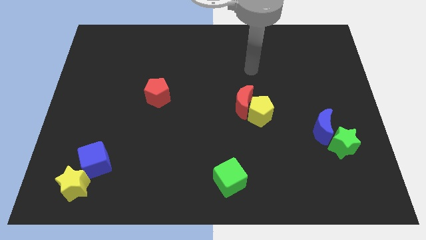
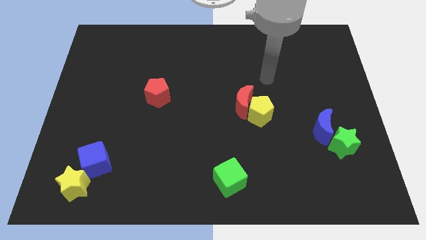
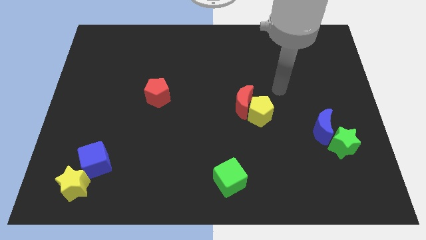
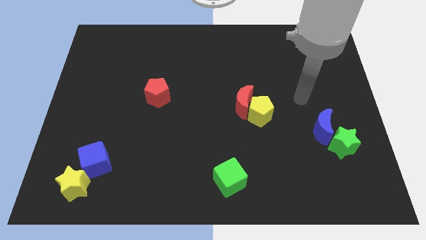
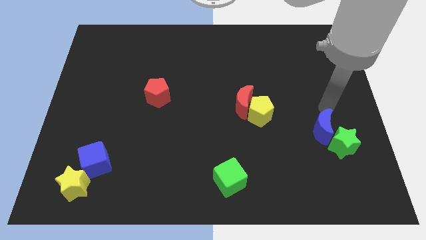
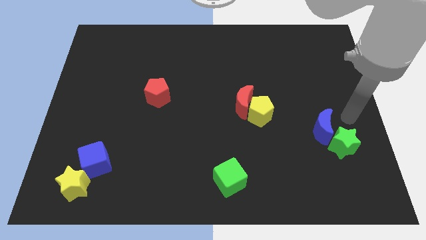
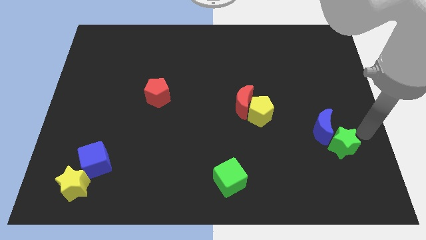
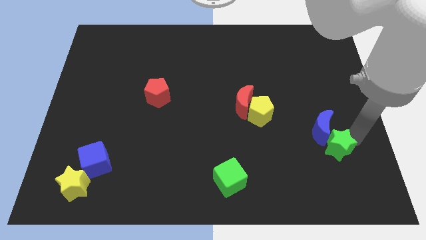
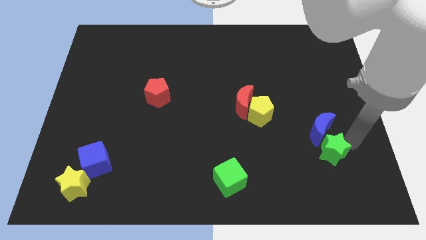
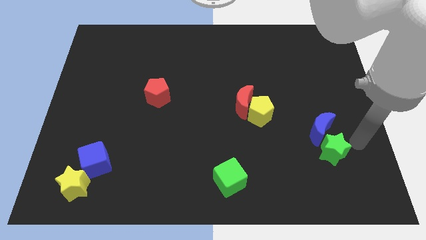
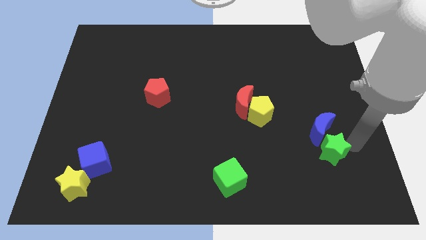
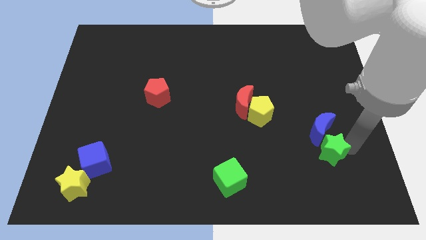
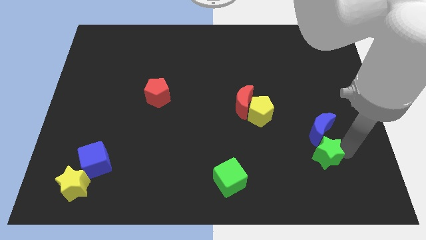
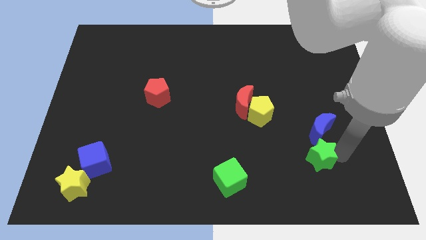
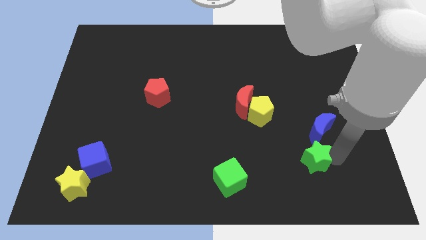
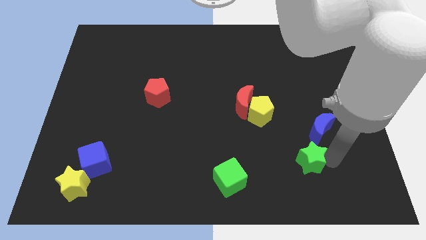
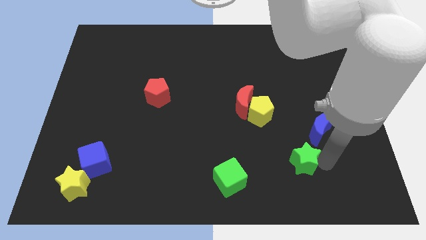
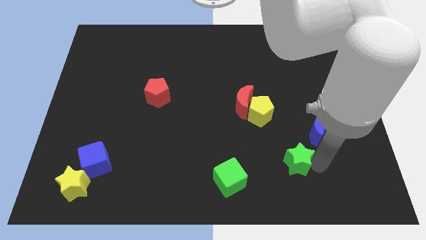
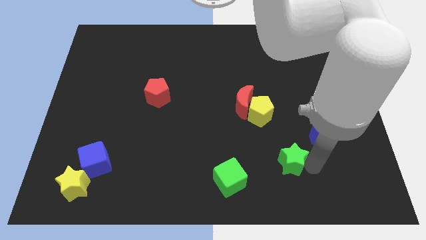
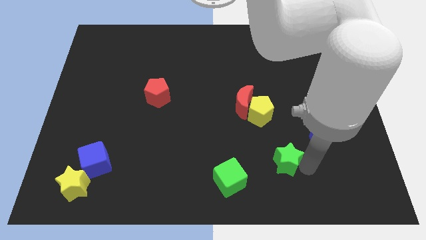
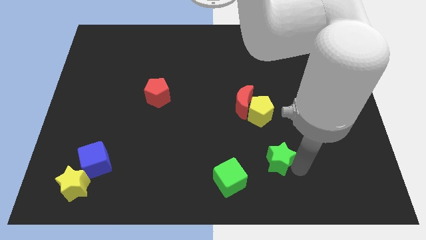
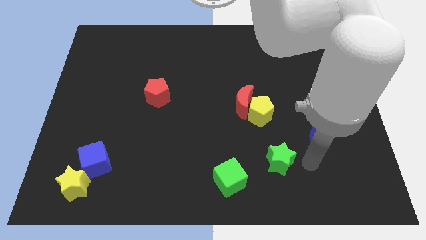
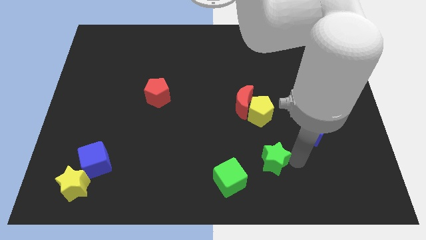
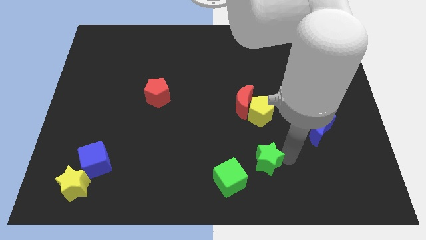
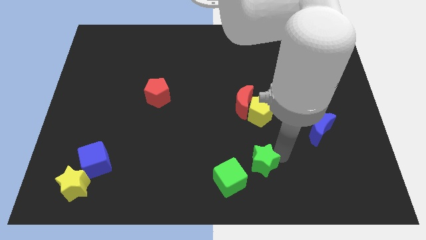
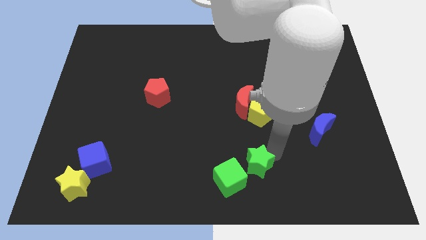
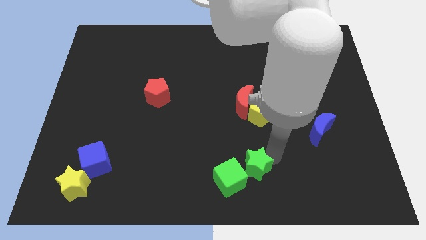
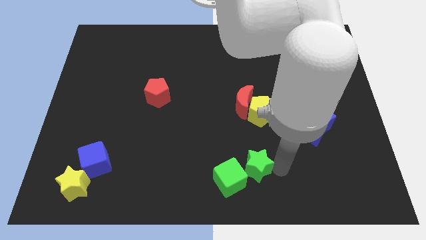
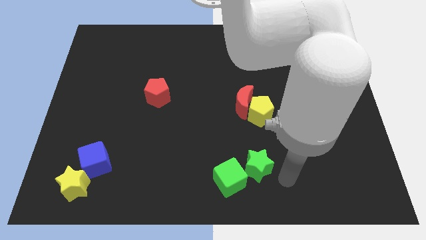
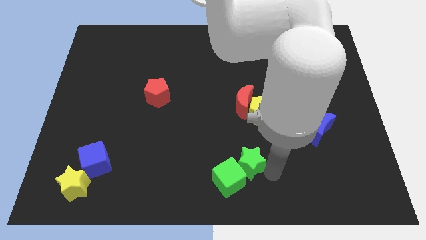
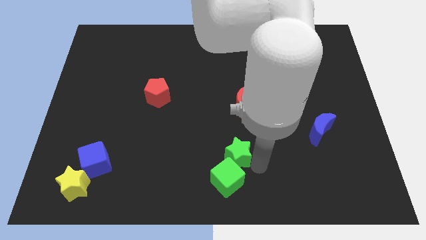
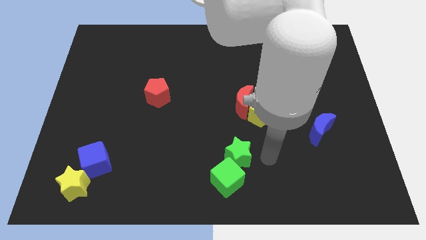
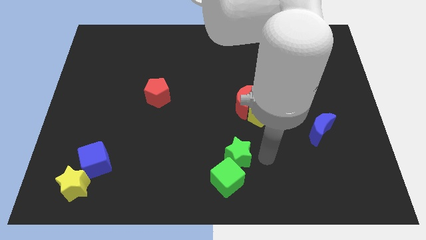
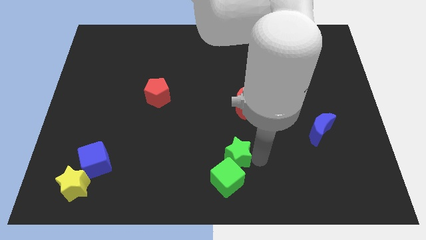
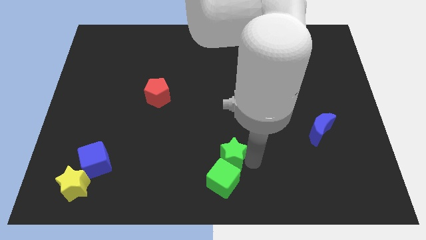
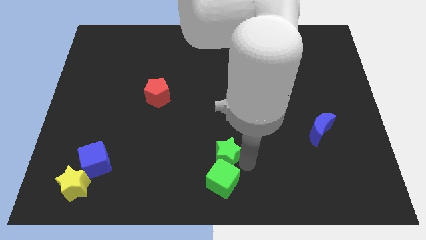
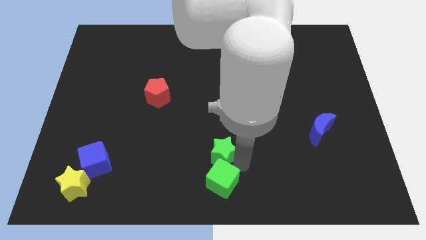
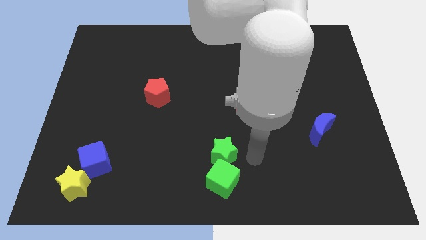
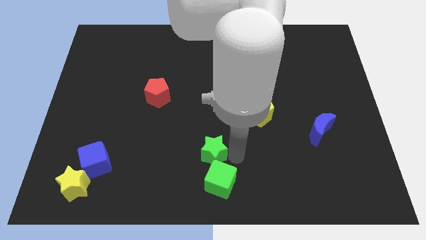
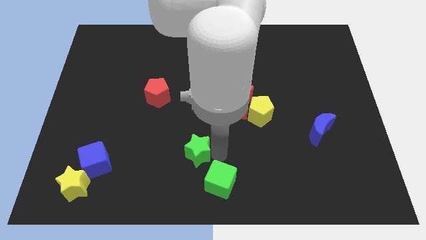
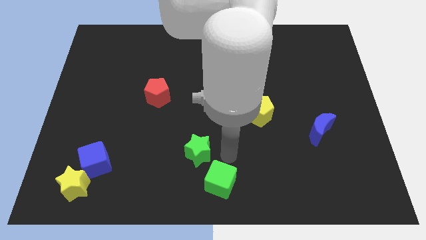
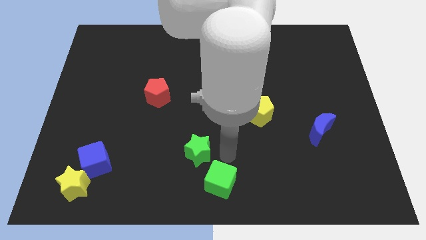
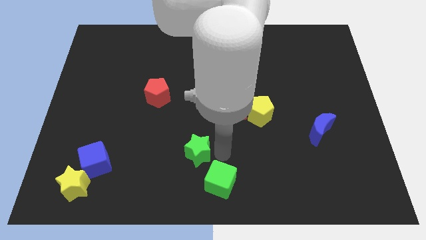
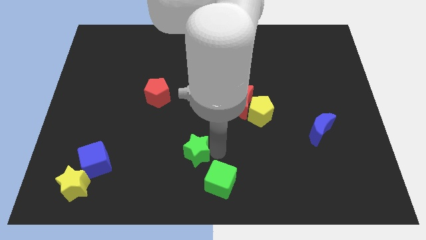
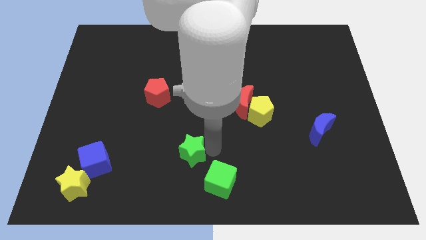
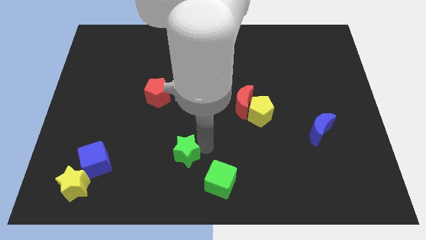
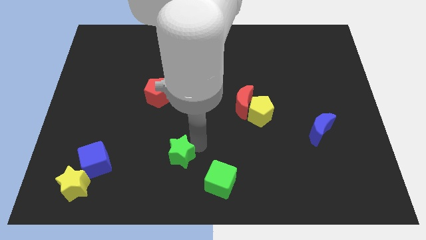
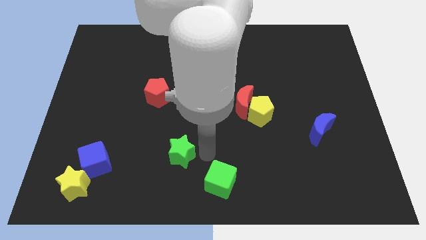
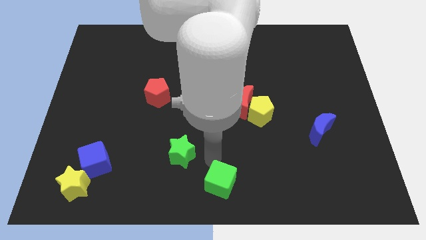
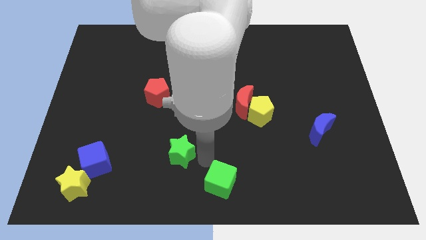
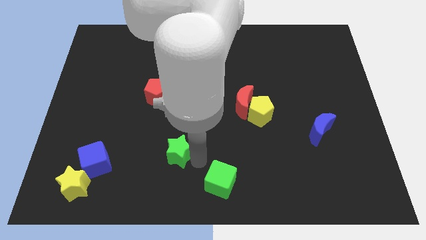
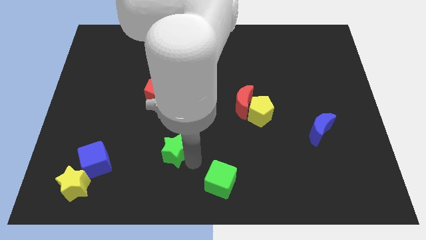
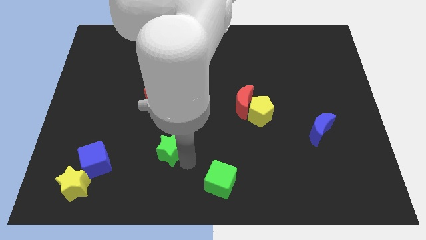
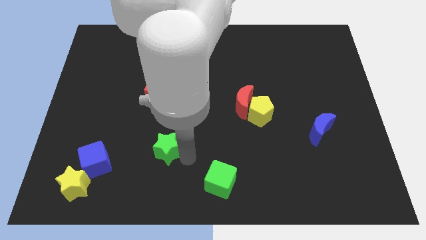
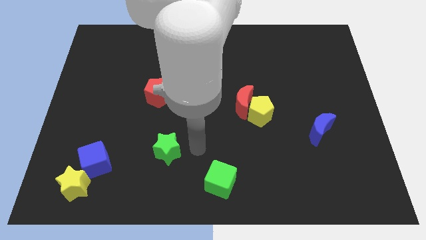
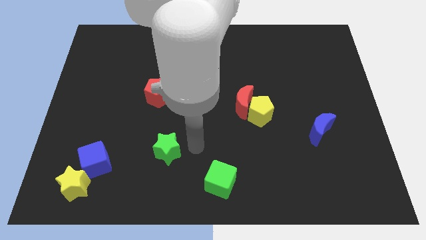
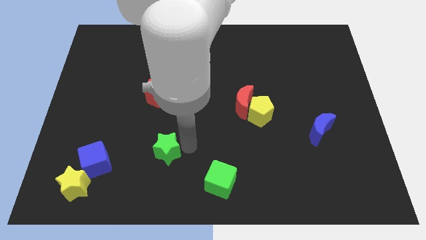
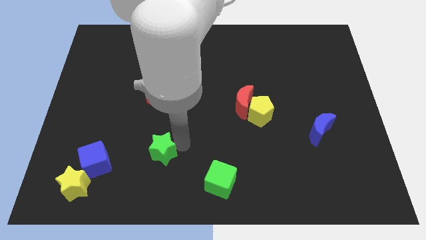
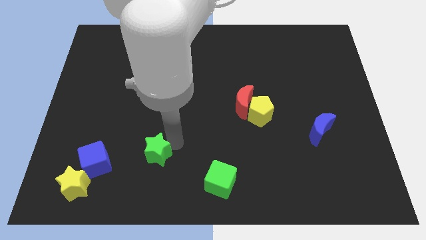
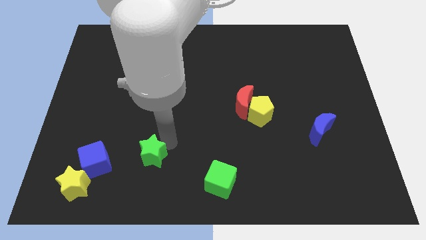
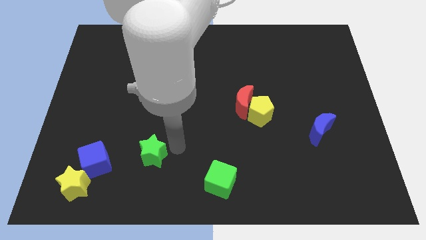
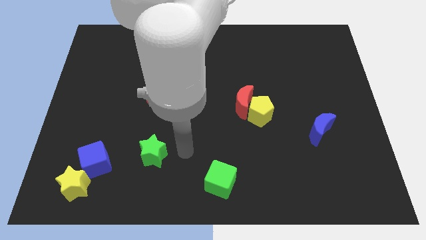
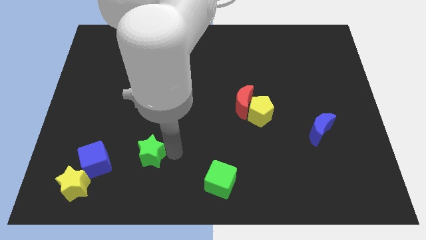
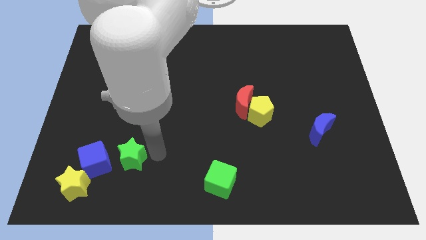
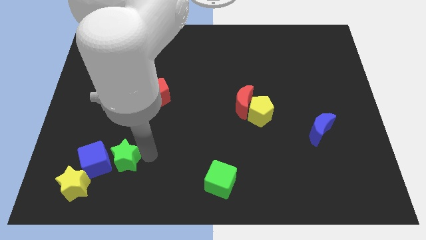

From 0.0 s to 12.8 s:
move the green star to the top right of the yellow star

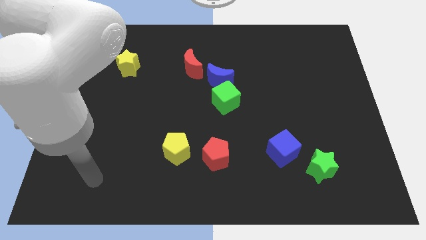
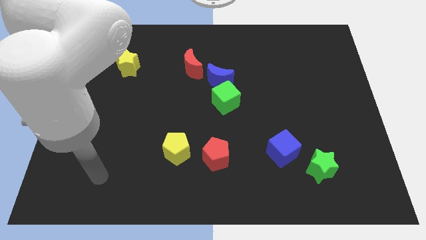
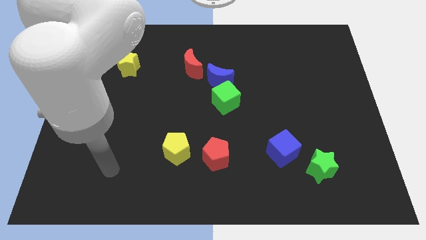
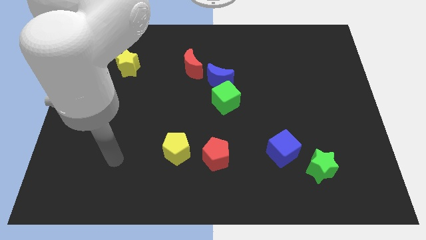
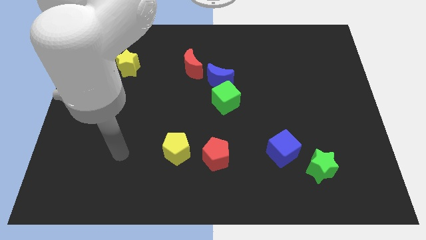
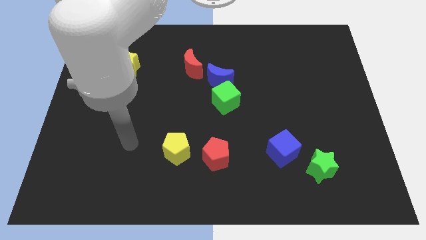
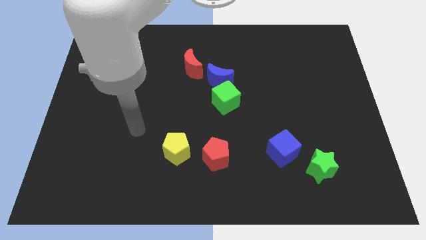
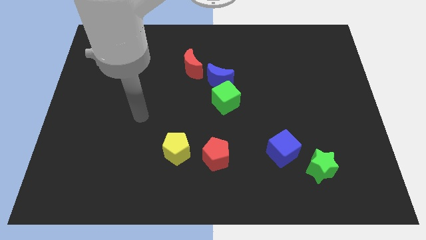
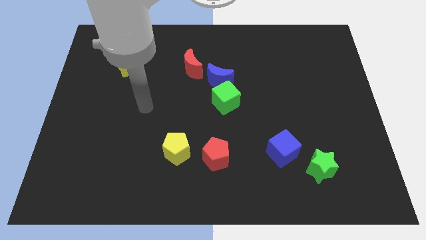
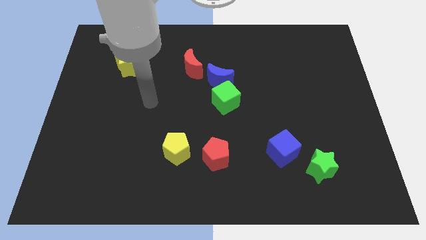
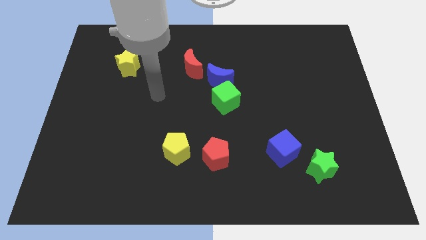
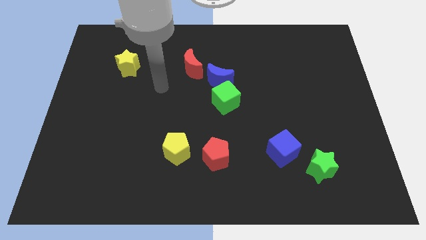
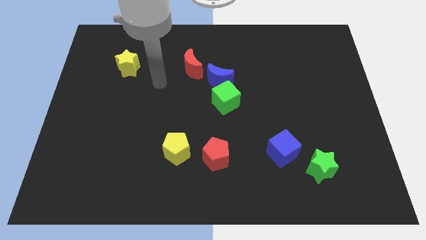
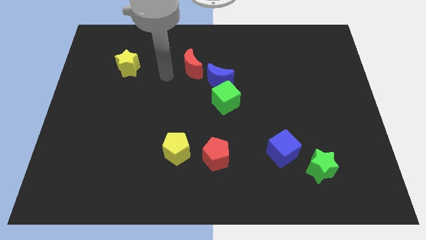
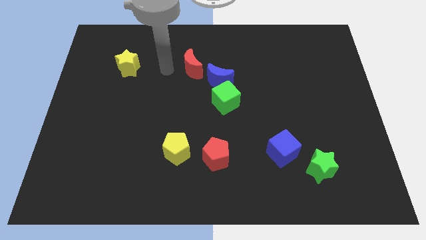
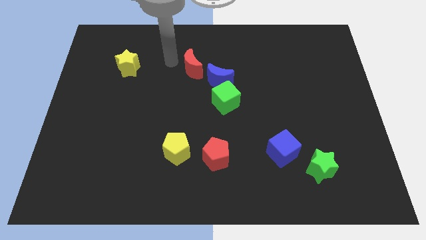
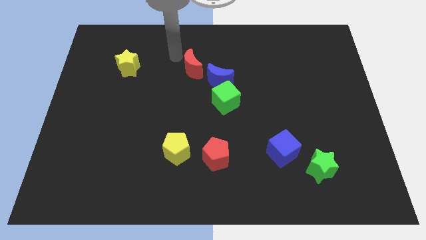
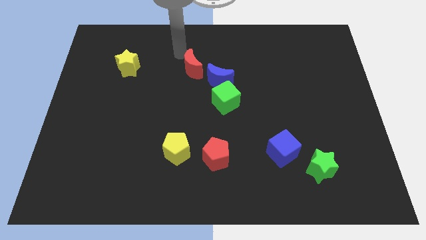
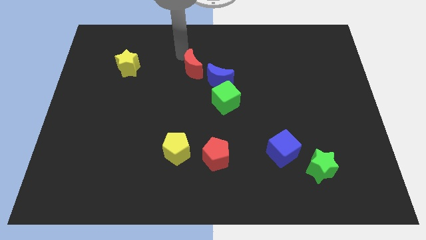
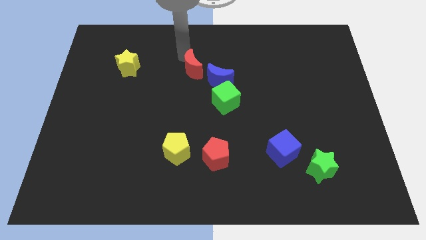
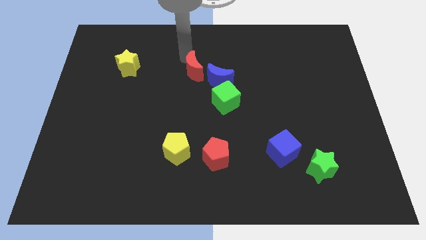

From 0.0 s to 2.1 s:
move the red moon to the top left of the green cube
